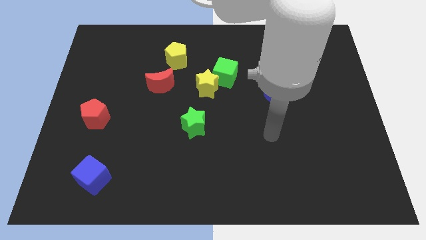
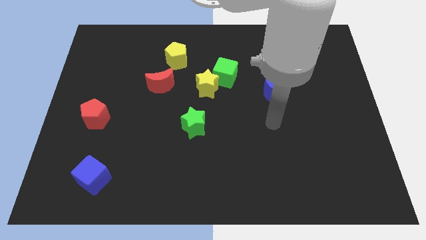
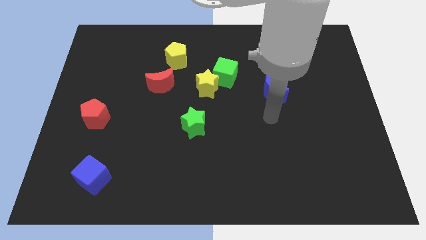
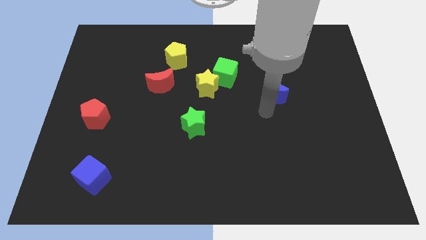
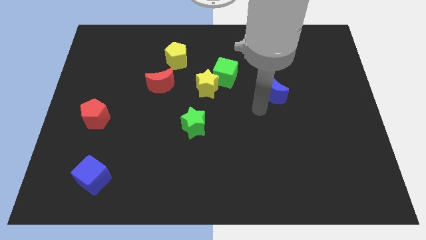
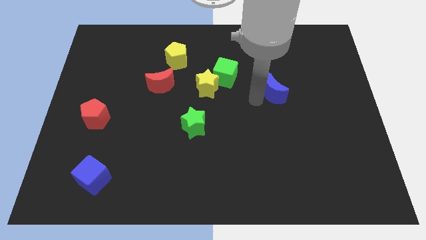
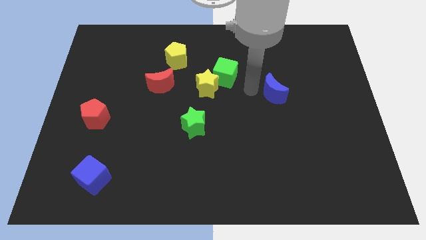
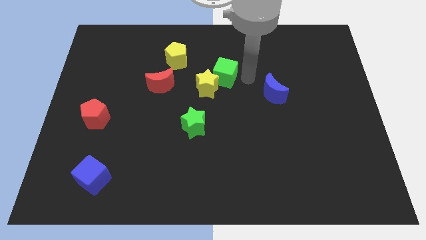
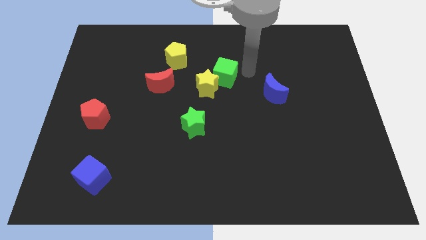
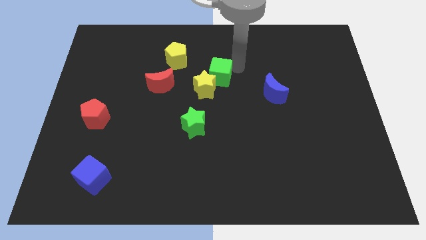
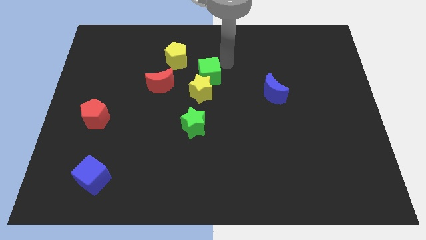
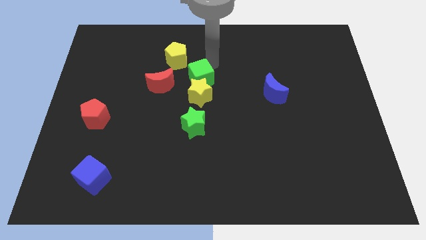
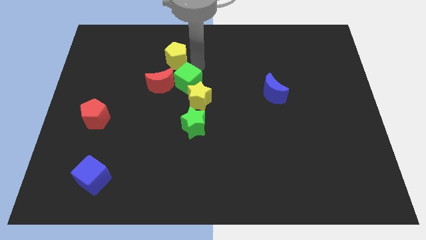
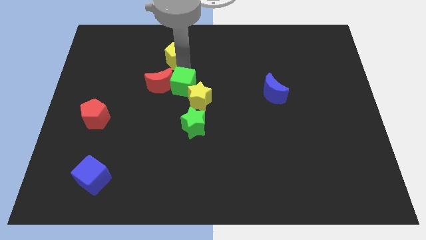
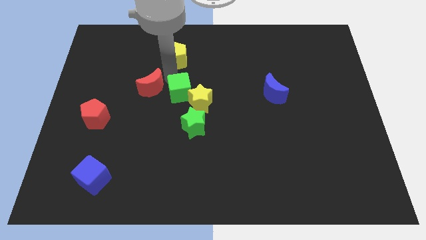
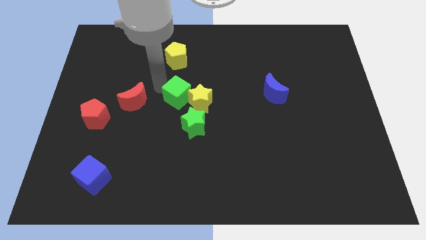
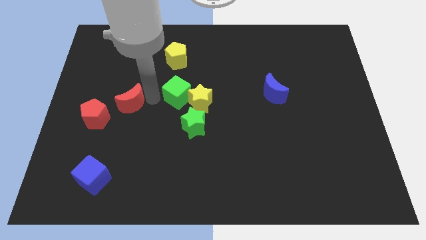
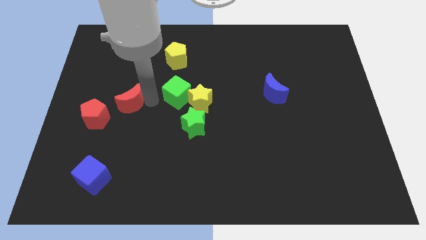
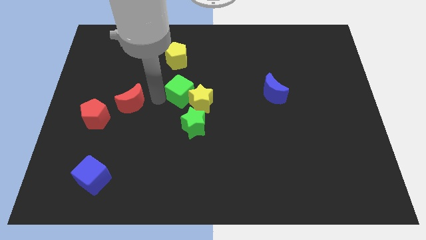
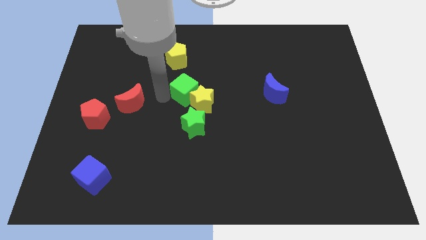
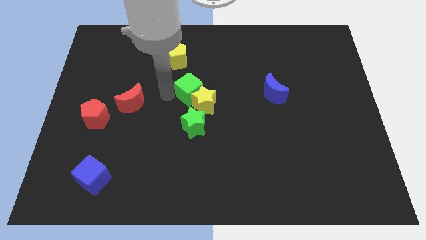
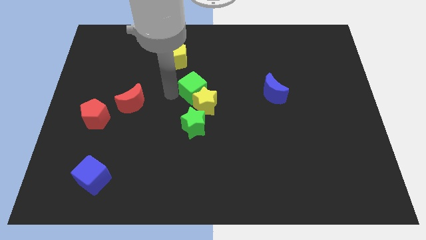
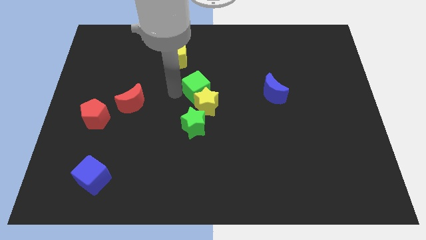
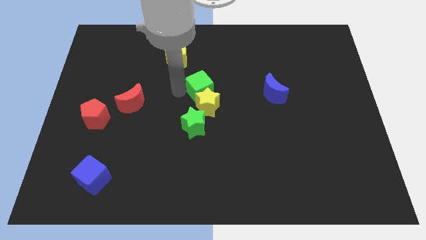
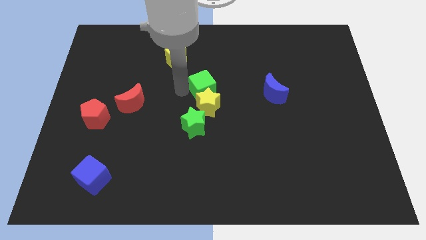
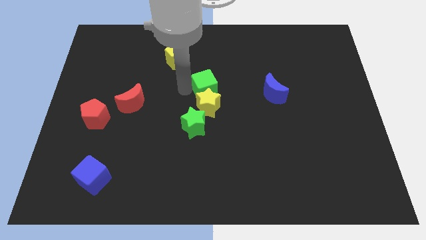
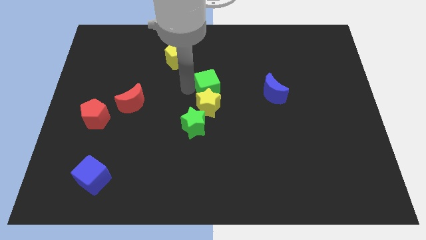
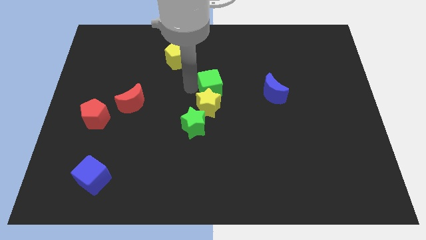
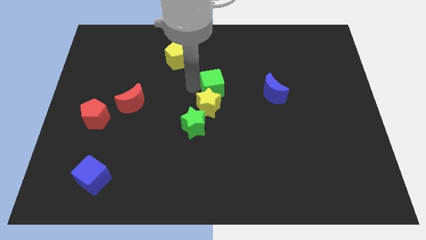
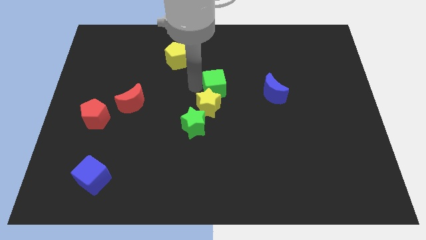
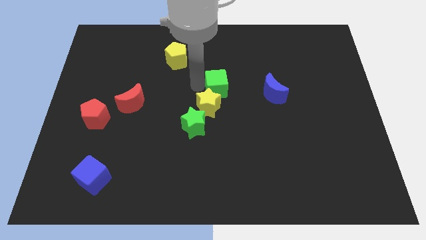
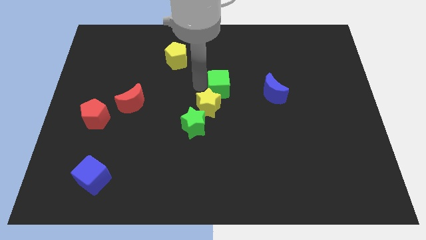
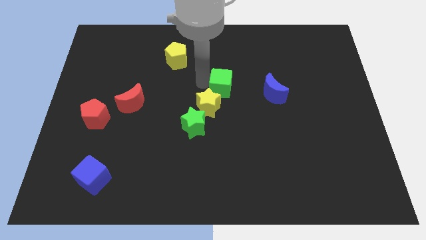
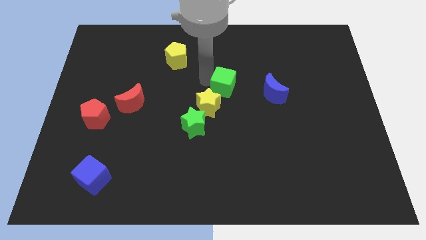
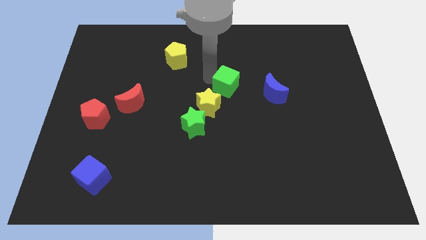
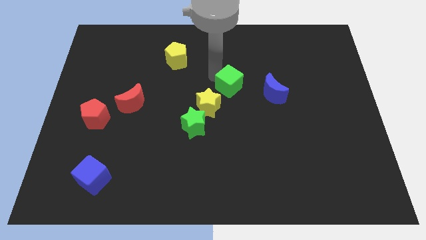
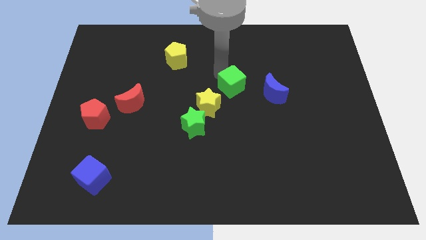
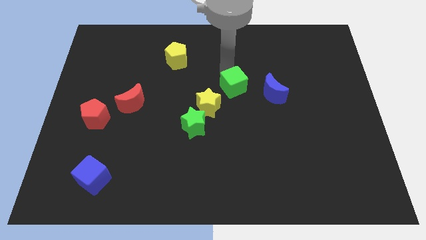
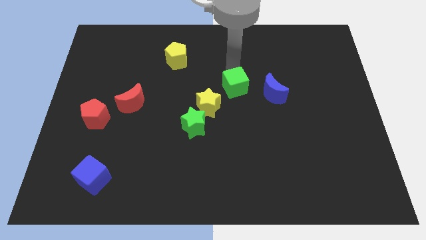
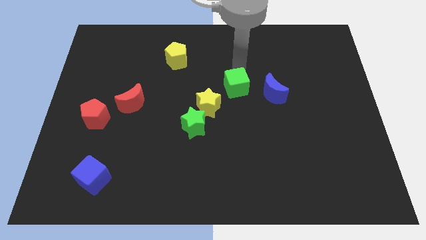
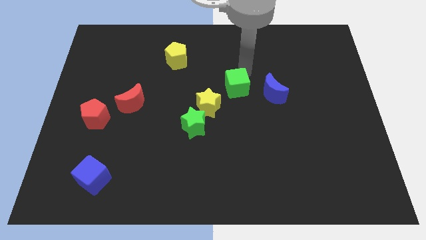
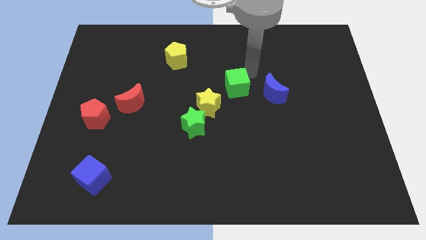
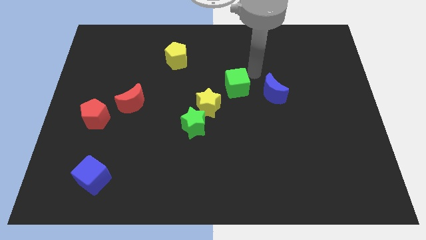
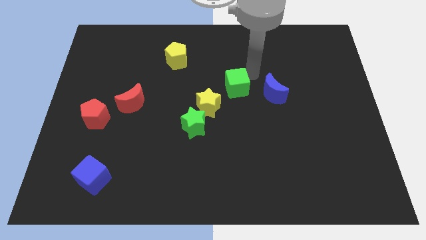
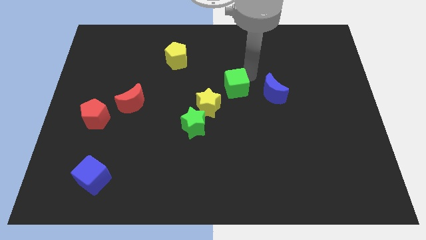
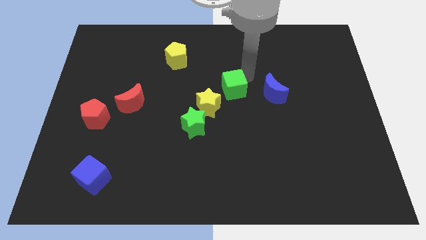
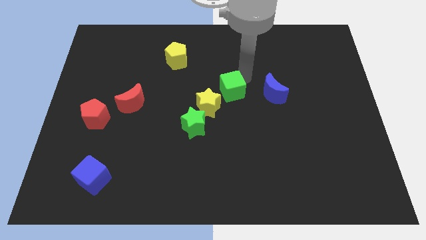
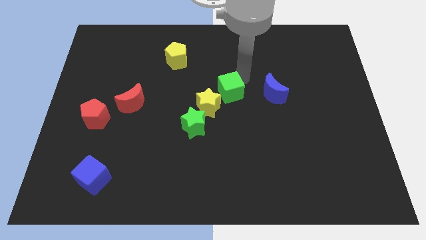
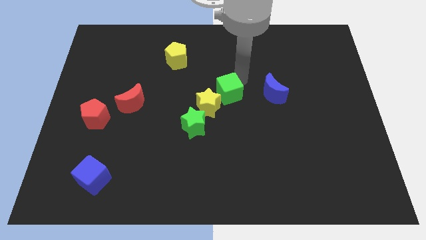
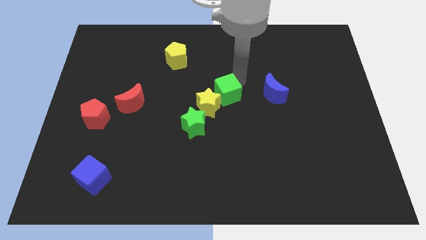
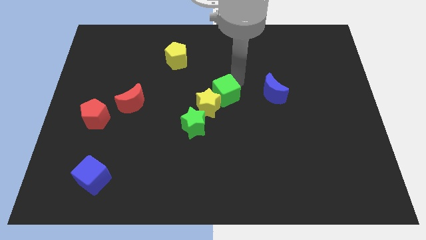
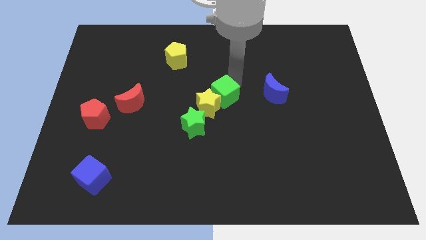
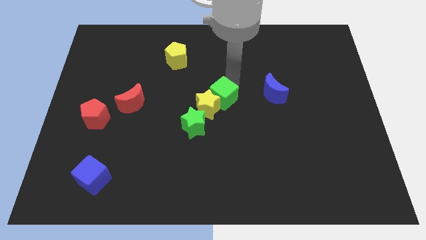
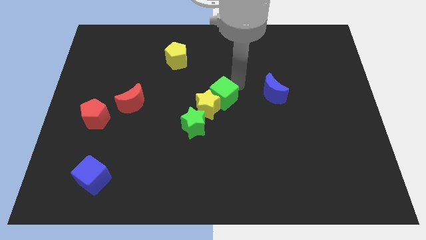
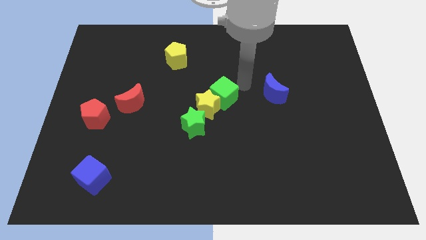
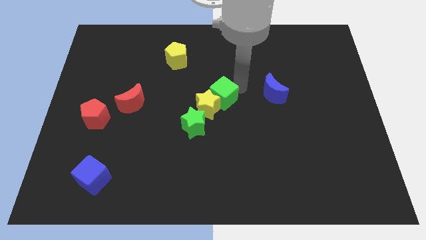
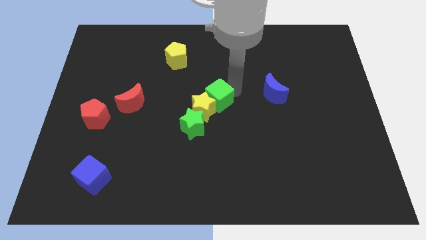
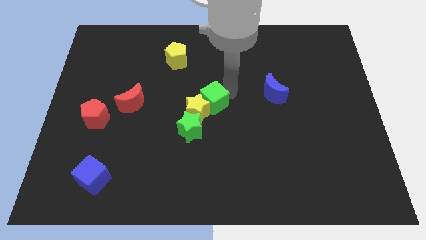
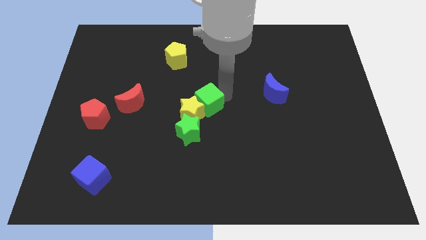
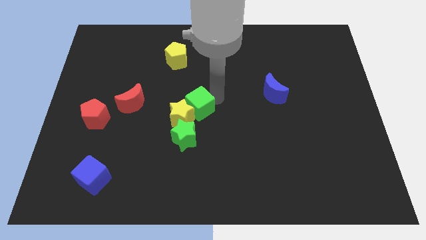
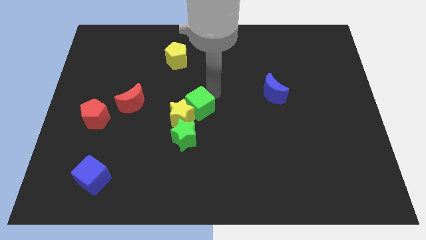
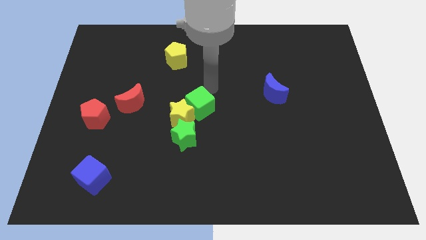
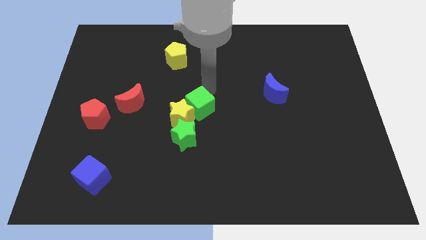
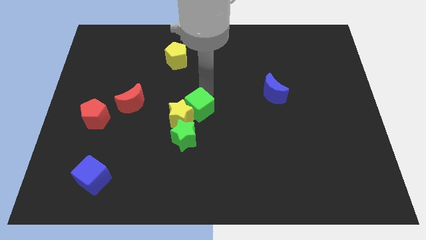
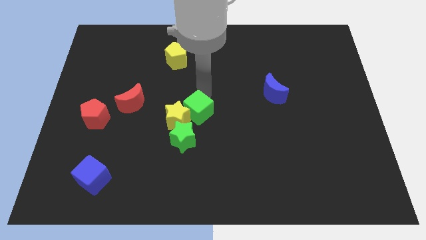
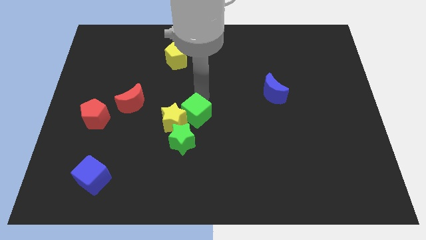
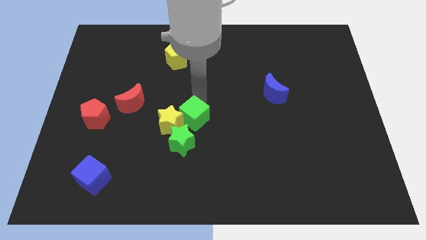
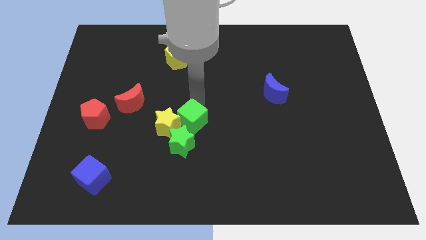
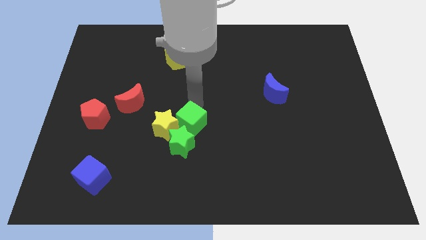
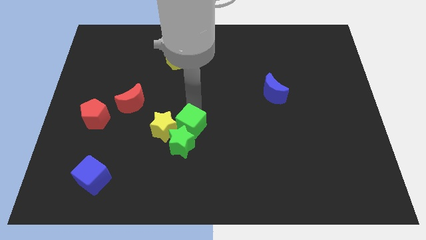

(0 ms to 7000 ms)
put the green cube close to the green star
